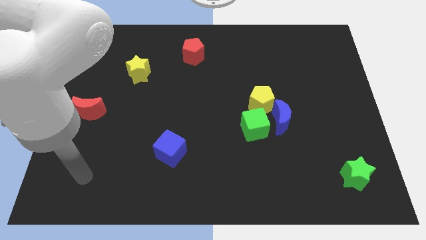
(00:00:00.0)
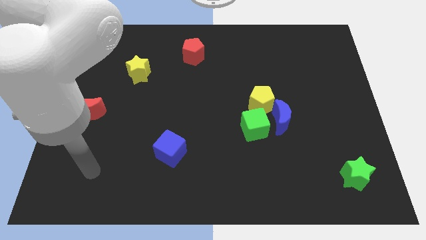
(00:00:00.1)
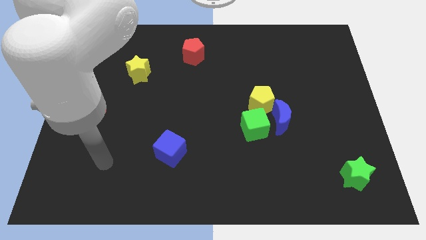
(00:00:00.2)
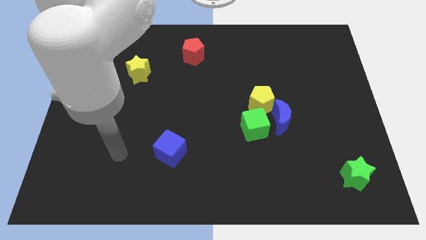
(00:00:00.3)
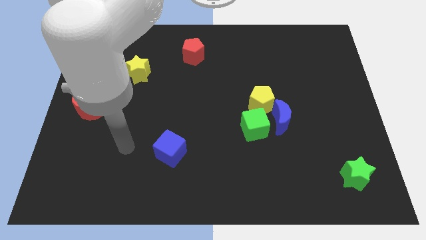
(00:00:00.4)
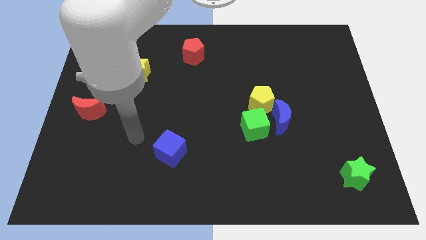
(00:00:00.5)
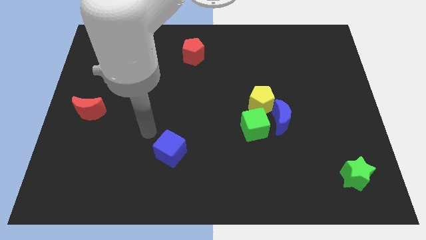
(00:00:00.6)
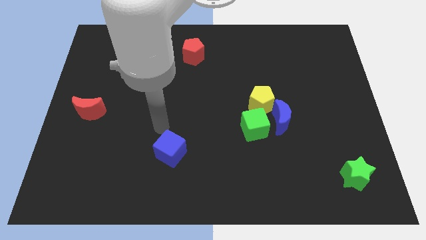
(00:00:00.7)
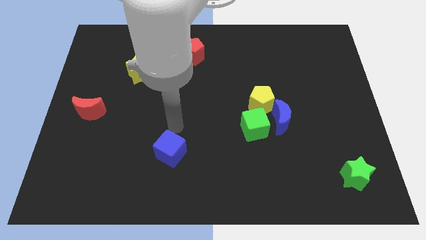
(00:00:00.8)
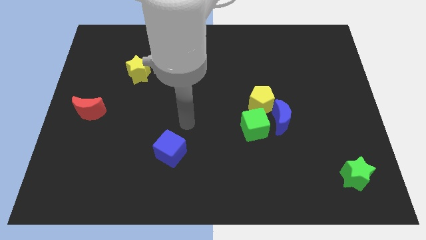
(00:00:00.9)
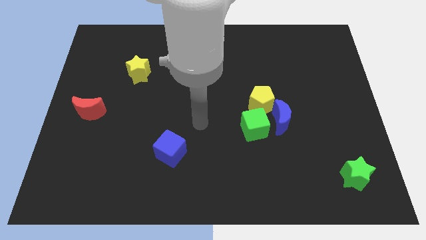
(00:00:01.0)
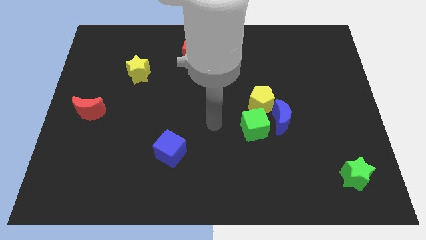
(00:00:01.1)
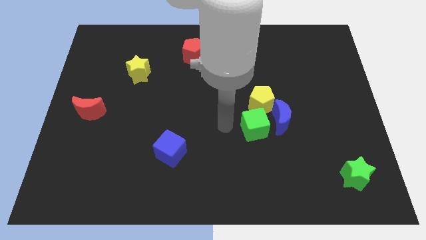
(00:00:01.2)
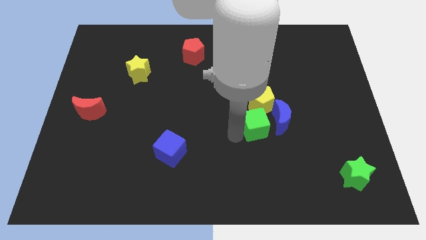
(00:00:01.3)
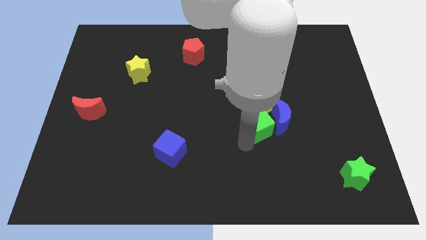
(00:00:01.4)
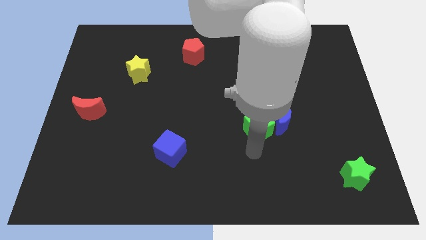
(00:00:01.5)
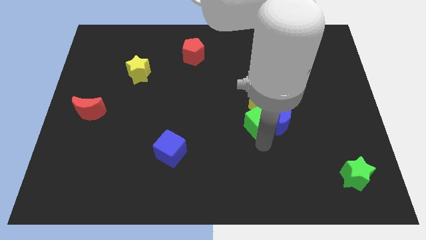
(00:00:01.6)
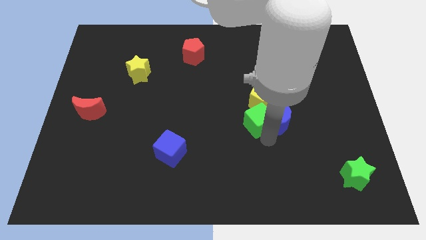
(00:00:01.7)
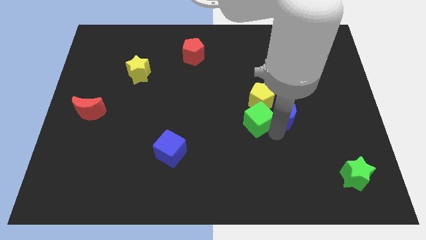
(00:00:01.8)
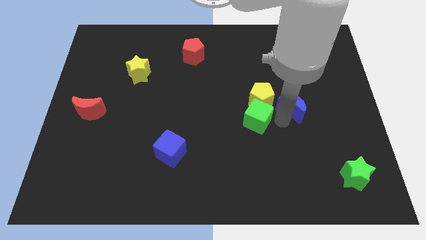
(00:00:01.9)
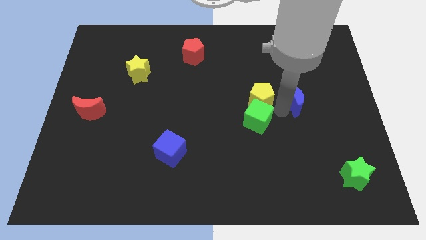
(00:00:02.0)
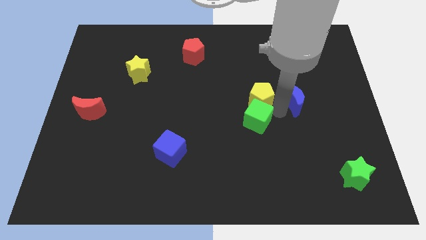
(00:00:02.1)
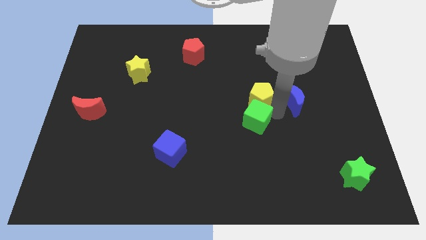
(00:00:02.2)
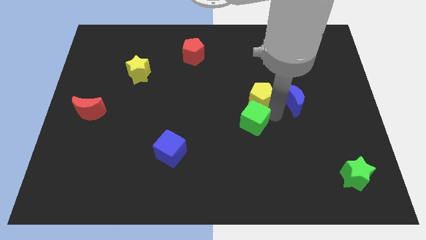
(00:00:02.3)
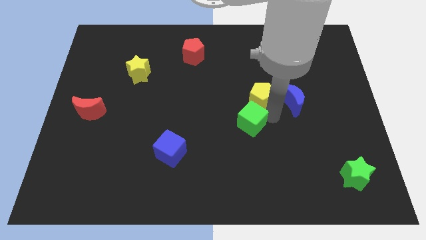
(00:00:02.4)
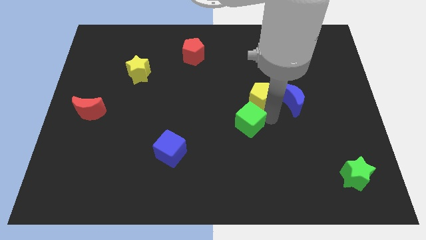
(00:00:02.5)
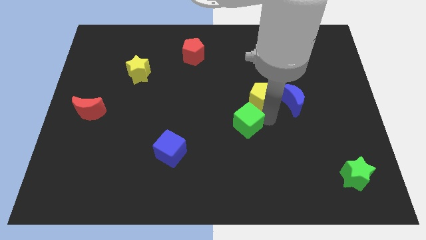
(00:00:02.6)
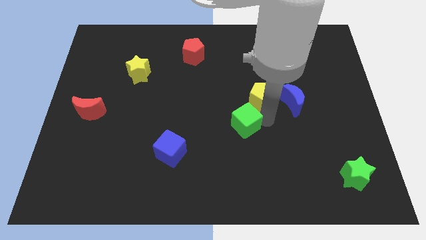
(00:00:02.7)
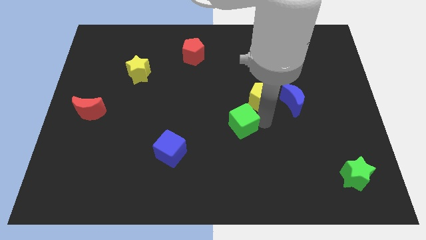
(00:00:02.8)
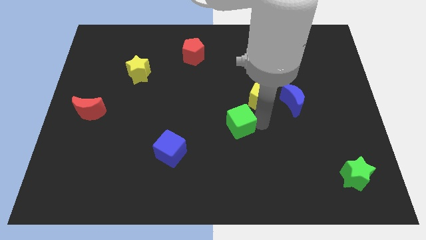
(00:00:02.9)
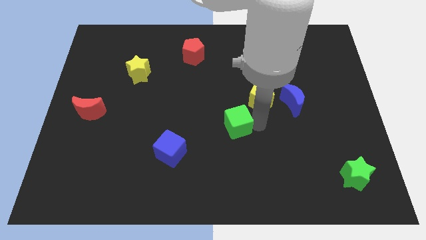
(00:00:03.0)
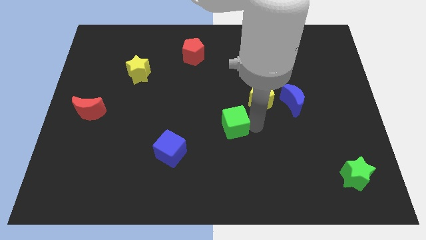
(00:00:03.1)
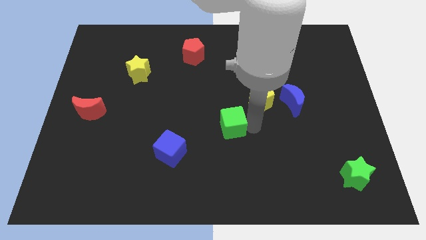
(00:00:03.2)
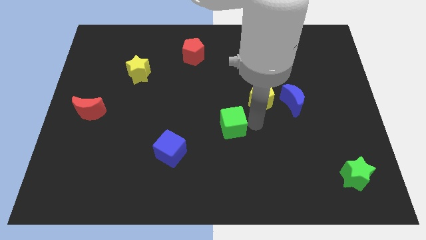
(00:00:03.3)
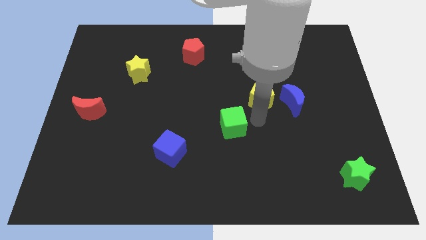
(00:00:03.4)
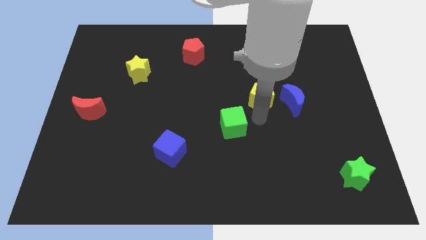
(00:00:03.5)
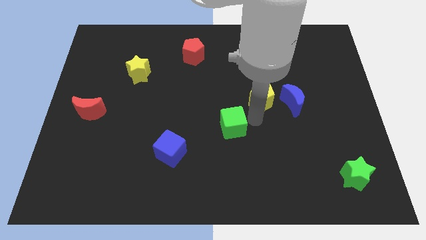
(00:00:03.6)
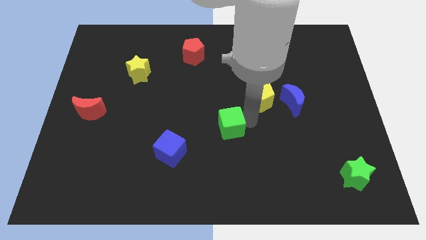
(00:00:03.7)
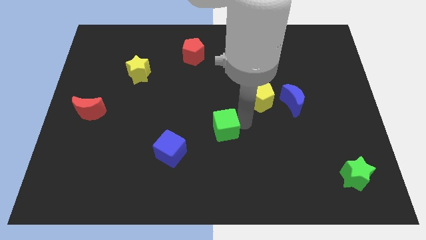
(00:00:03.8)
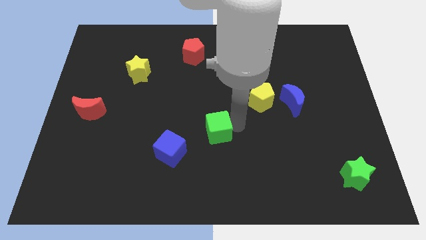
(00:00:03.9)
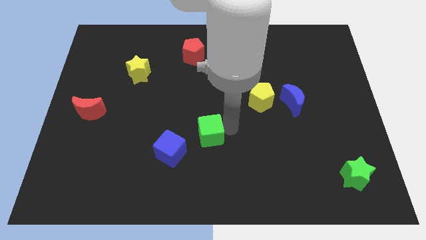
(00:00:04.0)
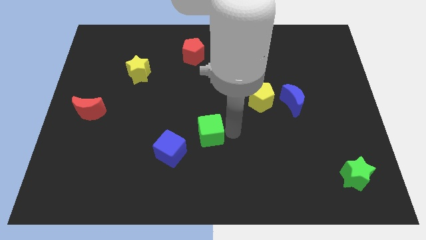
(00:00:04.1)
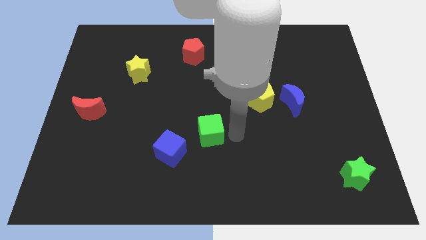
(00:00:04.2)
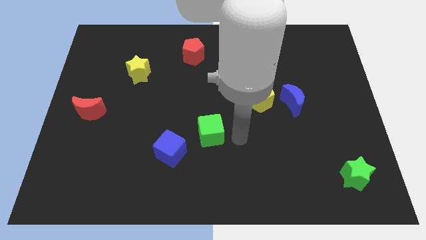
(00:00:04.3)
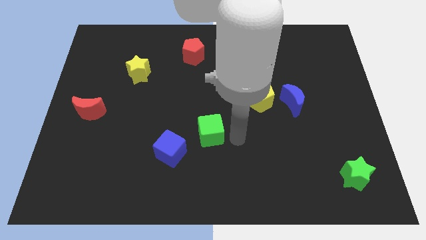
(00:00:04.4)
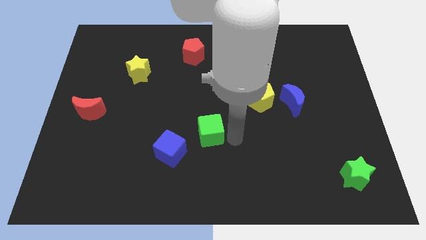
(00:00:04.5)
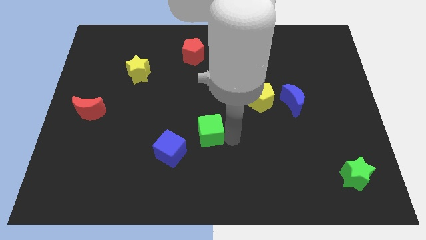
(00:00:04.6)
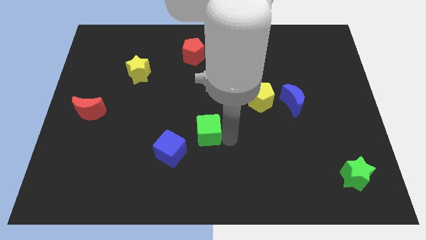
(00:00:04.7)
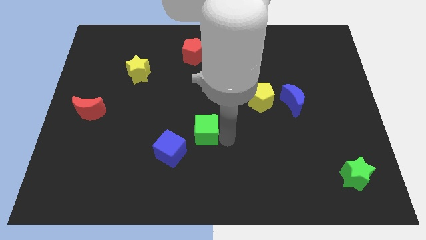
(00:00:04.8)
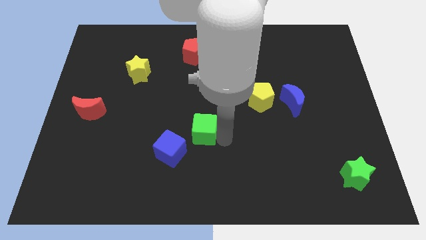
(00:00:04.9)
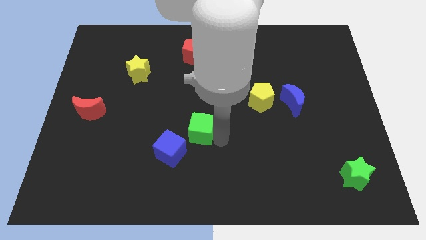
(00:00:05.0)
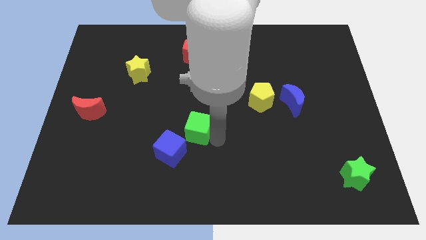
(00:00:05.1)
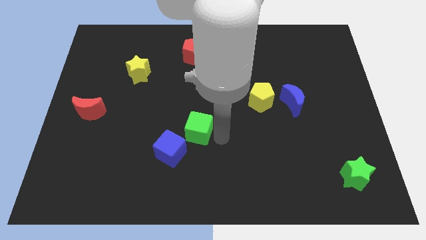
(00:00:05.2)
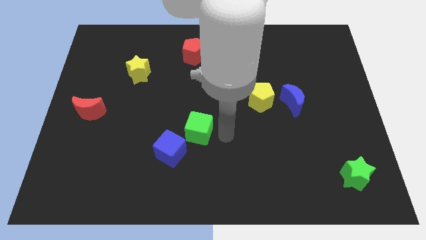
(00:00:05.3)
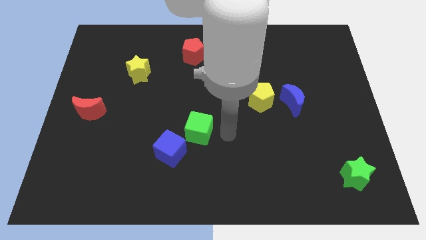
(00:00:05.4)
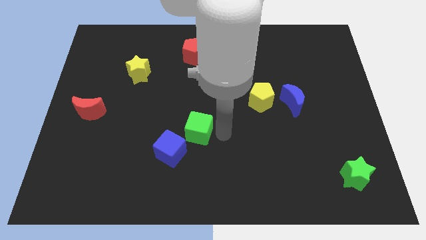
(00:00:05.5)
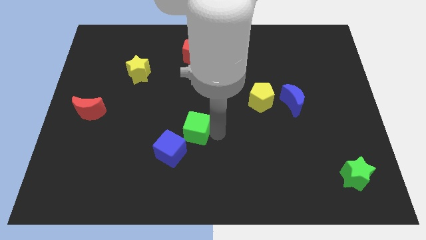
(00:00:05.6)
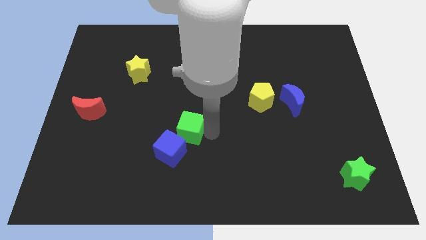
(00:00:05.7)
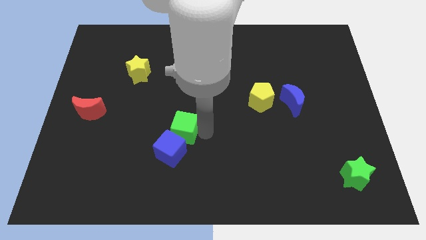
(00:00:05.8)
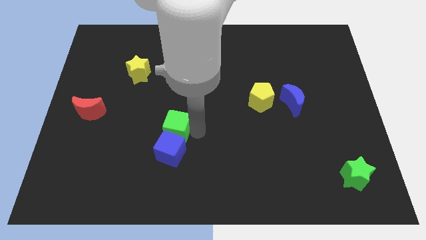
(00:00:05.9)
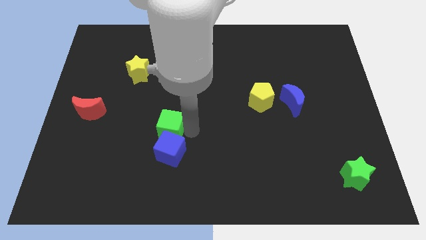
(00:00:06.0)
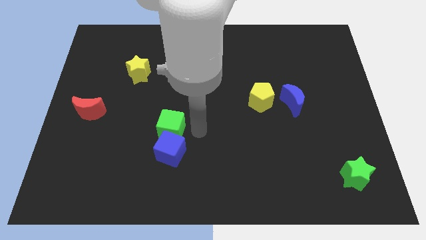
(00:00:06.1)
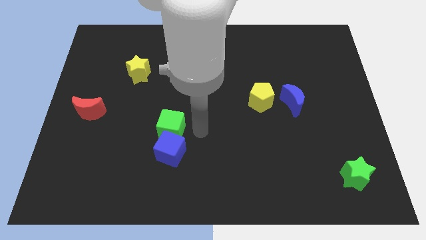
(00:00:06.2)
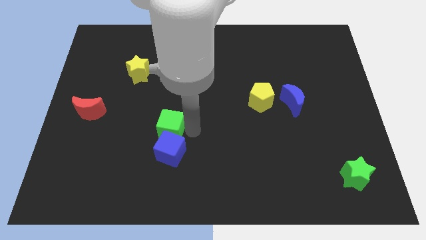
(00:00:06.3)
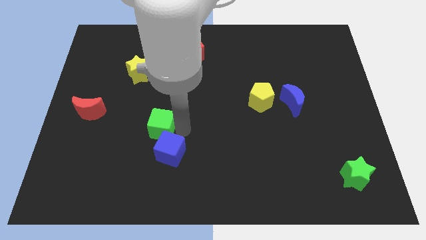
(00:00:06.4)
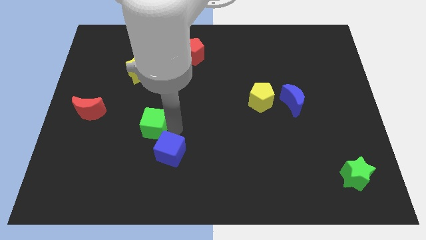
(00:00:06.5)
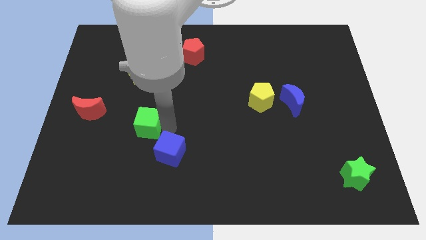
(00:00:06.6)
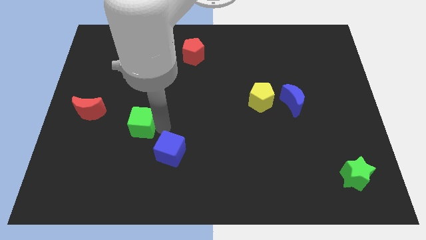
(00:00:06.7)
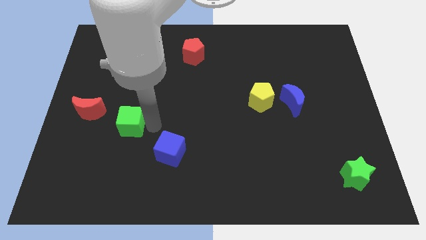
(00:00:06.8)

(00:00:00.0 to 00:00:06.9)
push the green cube diagonally down and to the right of the red moon

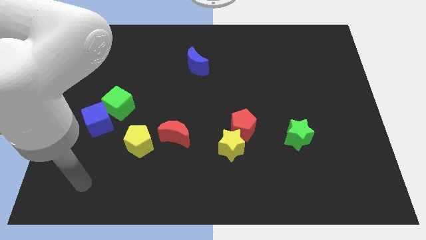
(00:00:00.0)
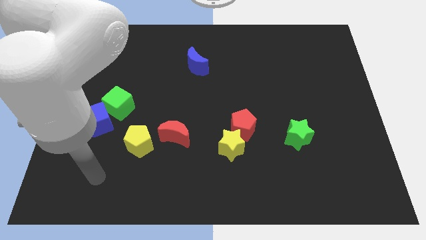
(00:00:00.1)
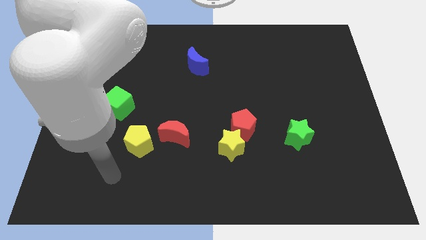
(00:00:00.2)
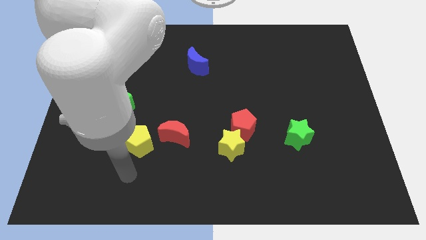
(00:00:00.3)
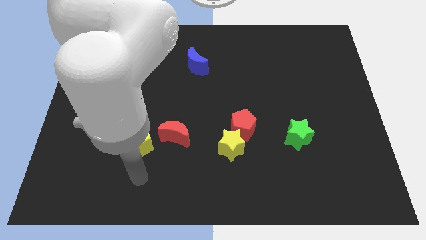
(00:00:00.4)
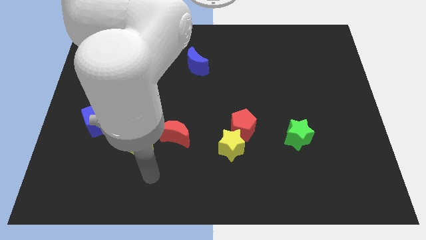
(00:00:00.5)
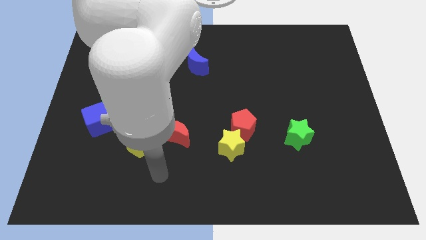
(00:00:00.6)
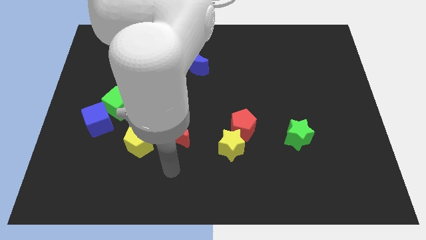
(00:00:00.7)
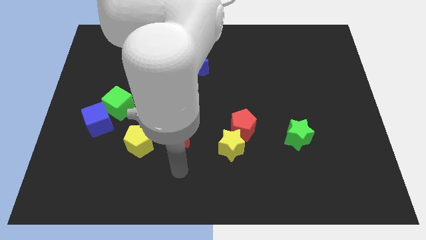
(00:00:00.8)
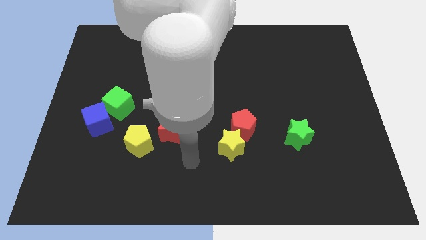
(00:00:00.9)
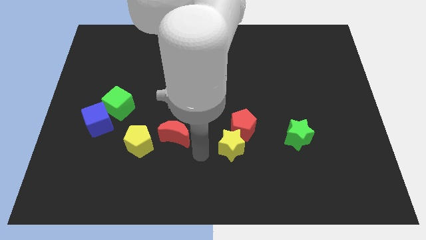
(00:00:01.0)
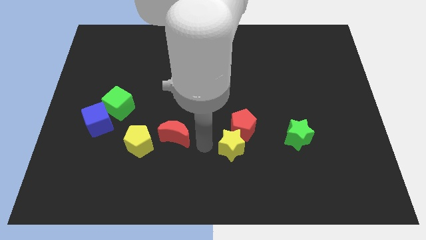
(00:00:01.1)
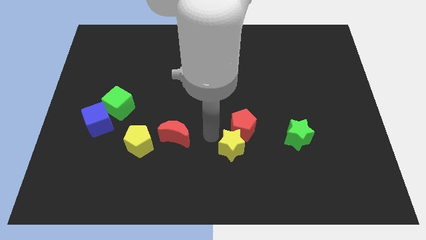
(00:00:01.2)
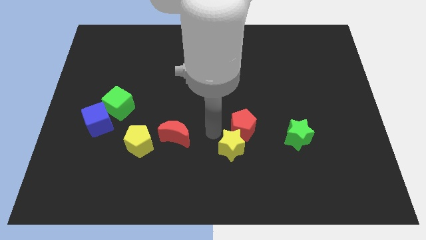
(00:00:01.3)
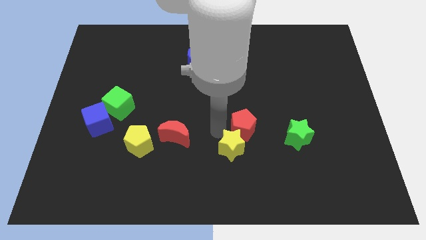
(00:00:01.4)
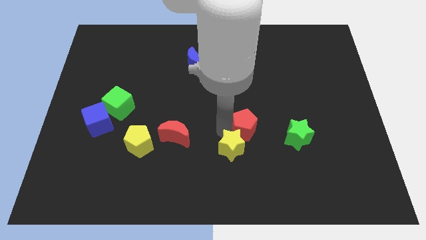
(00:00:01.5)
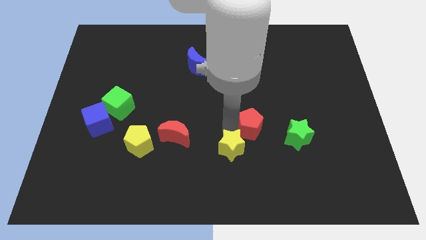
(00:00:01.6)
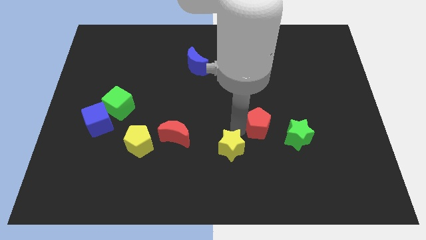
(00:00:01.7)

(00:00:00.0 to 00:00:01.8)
slide the red pentagon to the top left side of the green star
